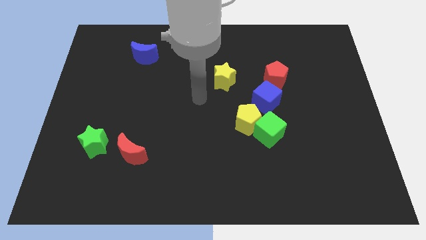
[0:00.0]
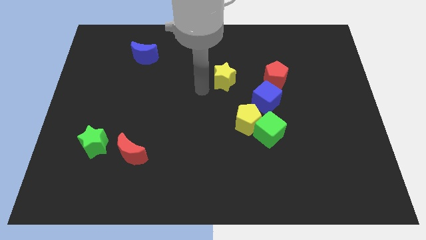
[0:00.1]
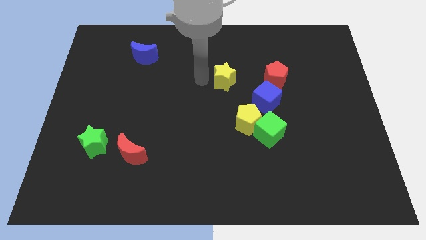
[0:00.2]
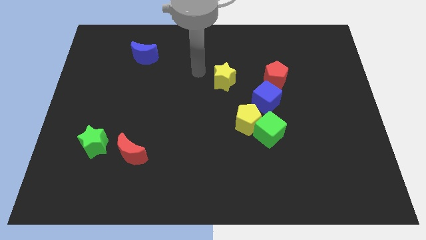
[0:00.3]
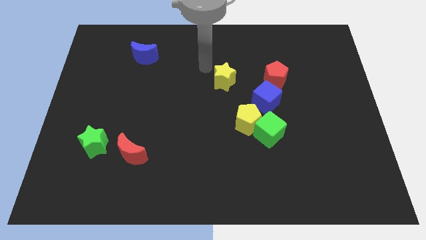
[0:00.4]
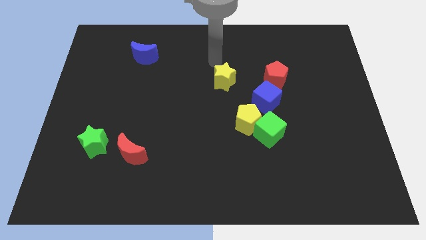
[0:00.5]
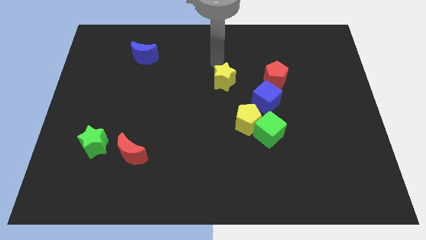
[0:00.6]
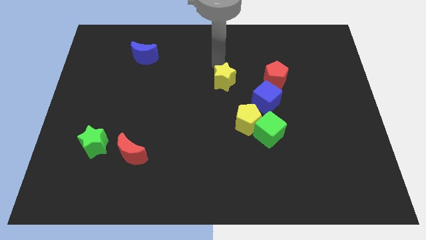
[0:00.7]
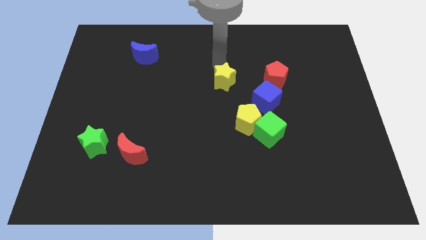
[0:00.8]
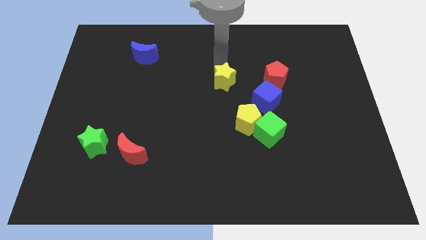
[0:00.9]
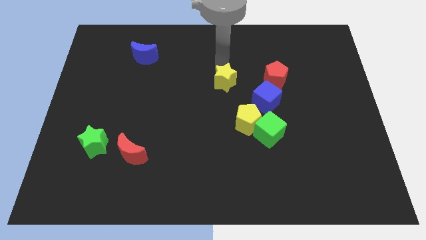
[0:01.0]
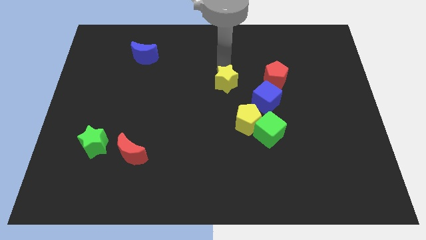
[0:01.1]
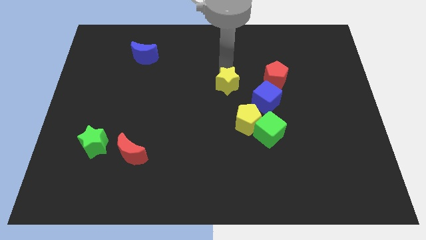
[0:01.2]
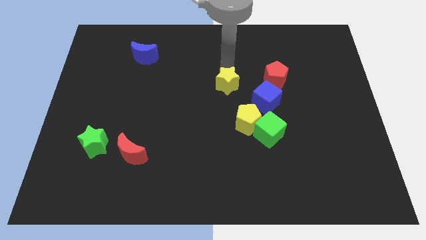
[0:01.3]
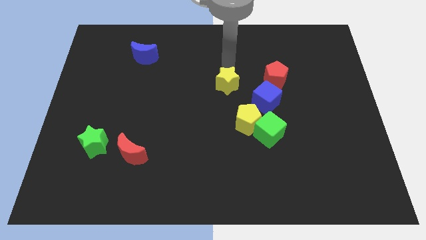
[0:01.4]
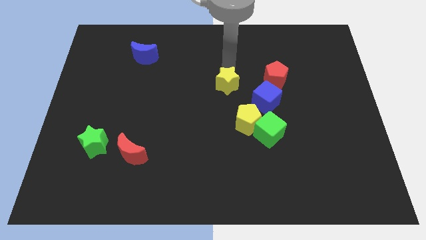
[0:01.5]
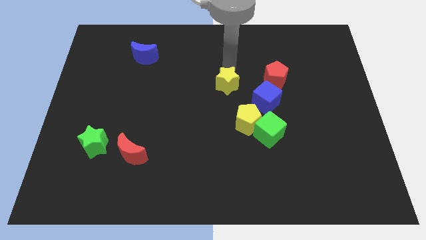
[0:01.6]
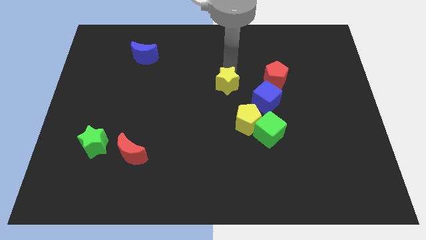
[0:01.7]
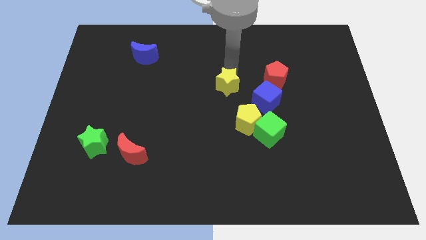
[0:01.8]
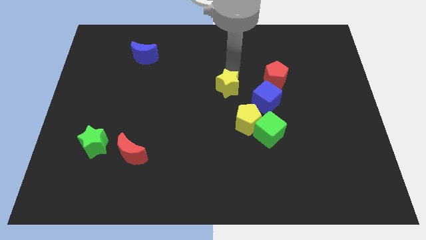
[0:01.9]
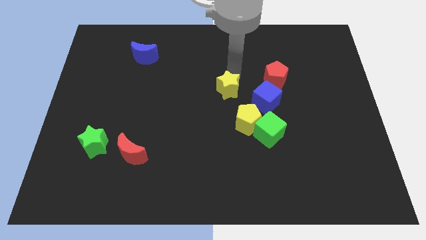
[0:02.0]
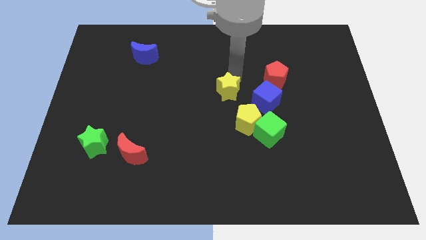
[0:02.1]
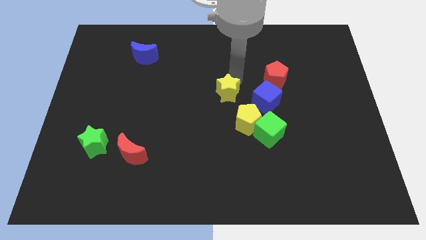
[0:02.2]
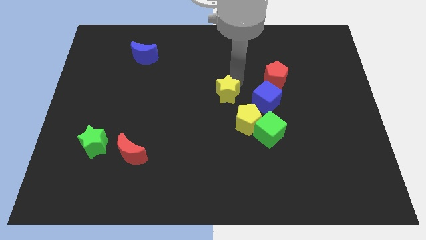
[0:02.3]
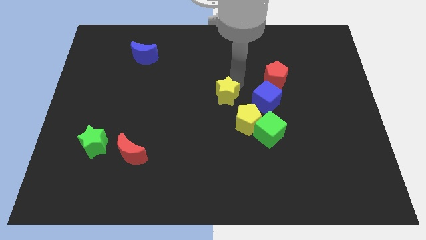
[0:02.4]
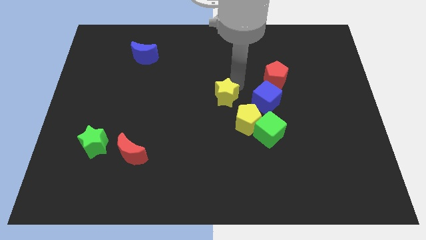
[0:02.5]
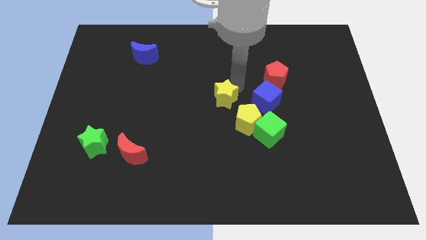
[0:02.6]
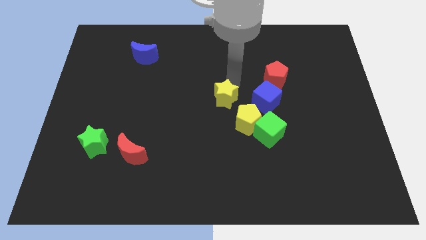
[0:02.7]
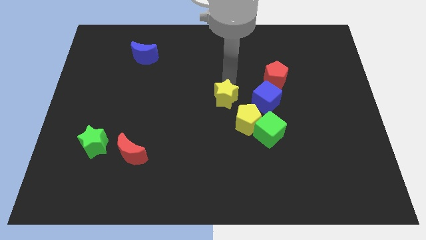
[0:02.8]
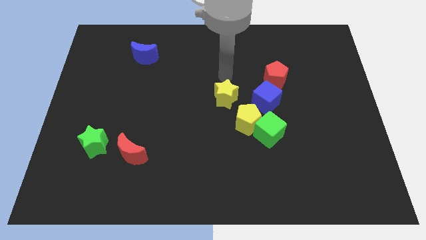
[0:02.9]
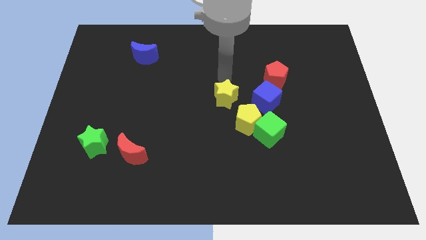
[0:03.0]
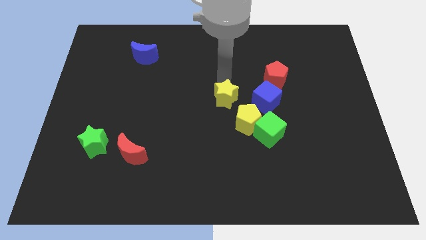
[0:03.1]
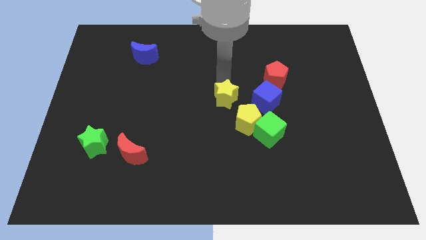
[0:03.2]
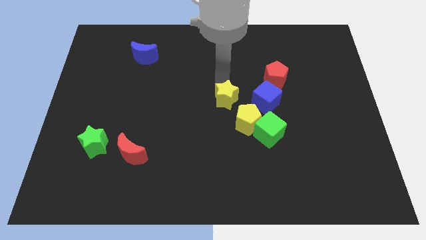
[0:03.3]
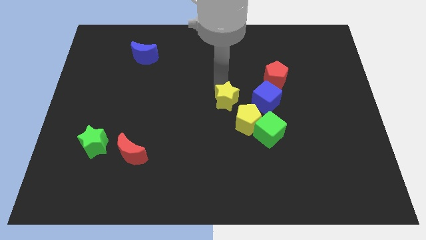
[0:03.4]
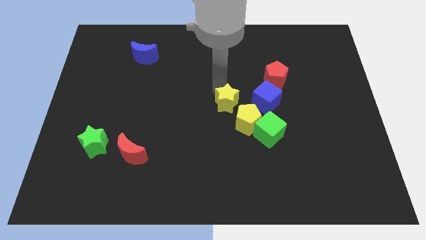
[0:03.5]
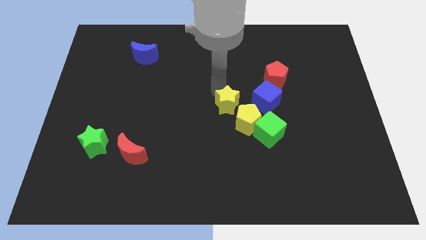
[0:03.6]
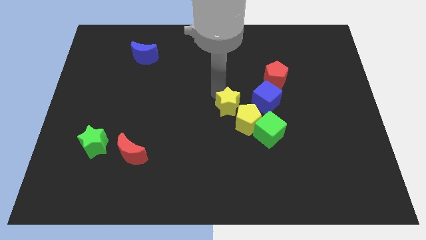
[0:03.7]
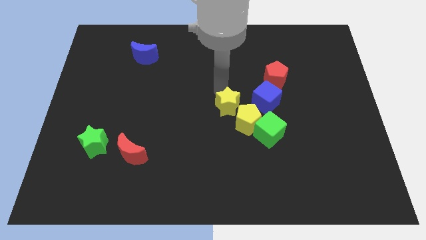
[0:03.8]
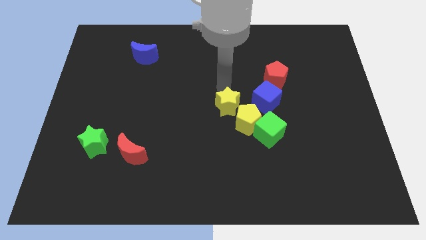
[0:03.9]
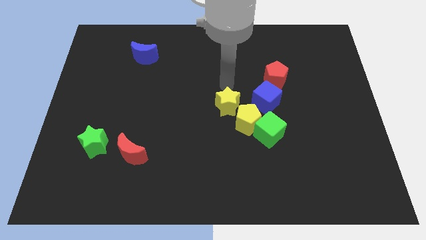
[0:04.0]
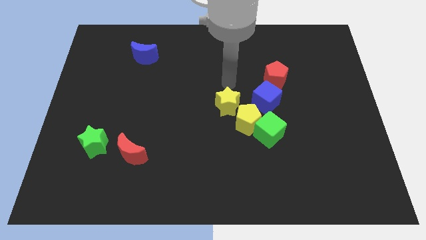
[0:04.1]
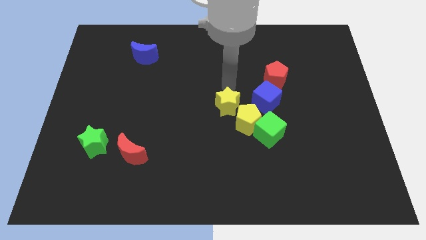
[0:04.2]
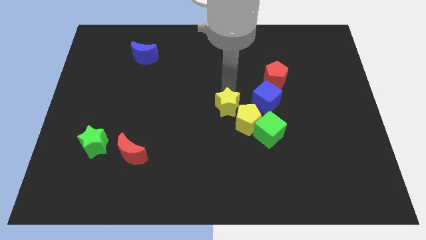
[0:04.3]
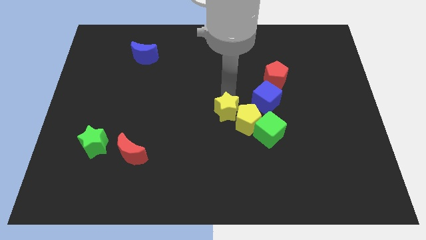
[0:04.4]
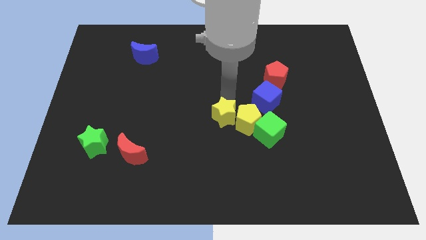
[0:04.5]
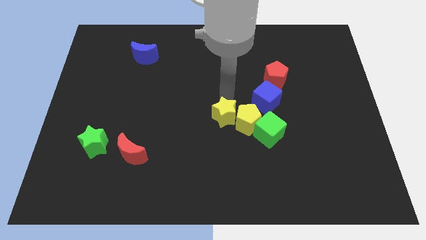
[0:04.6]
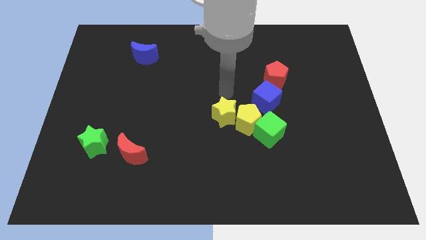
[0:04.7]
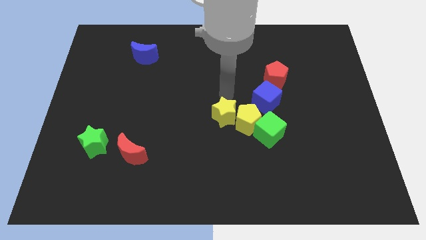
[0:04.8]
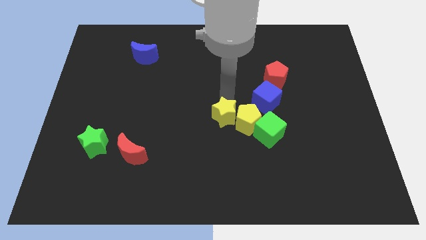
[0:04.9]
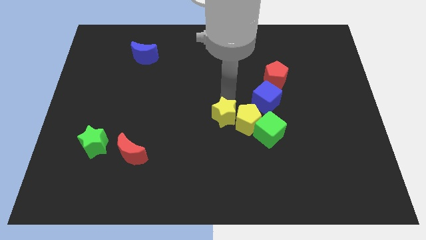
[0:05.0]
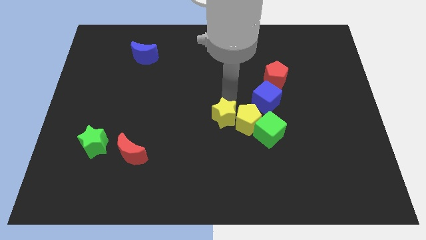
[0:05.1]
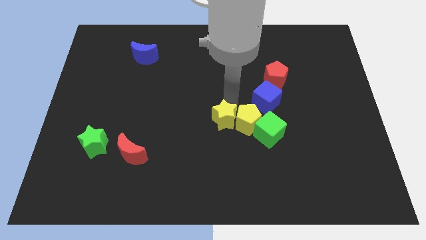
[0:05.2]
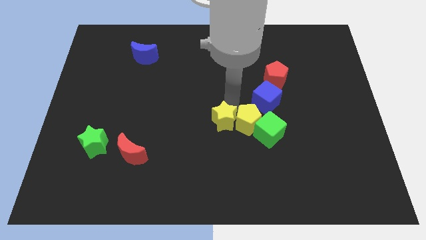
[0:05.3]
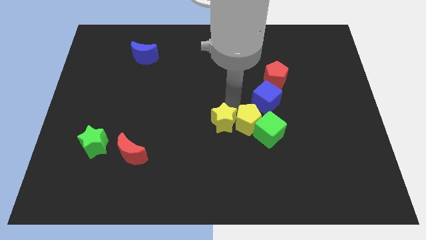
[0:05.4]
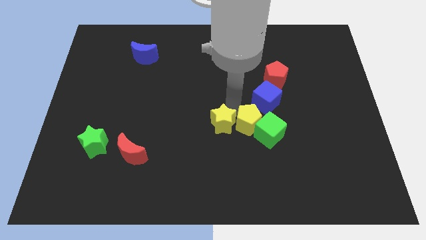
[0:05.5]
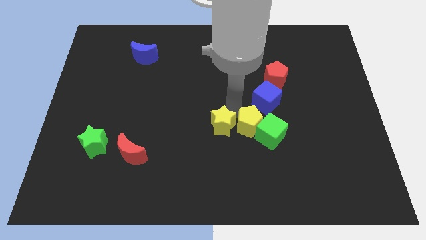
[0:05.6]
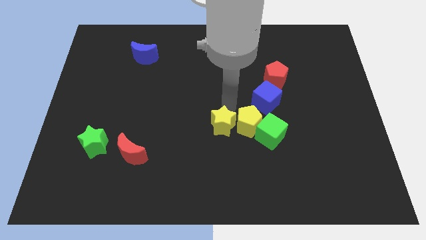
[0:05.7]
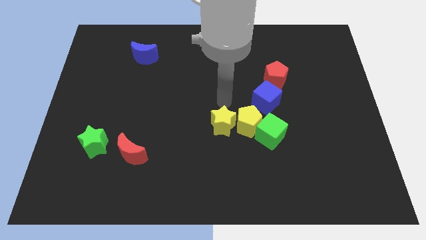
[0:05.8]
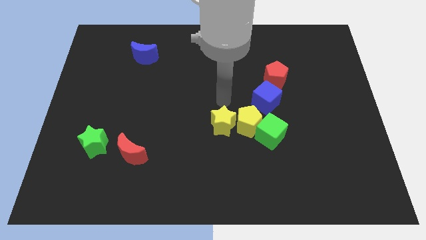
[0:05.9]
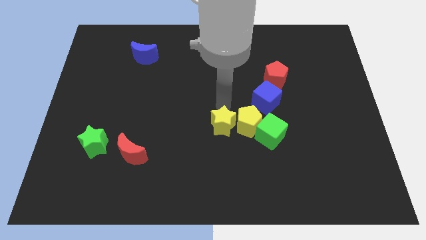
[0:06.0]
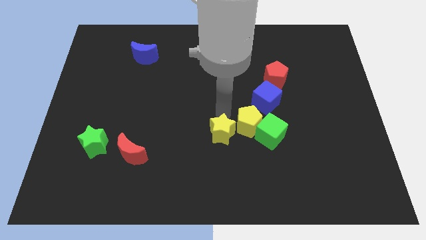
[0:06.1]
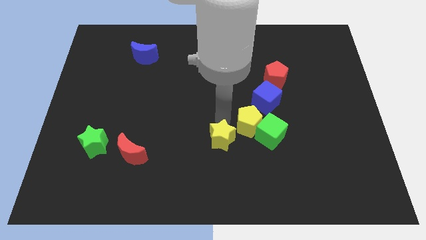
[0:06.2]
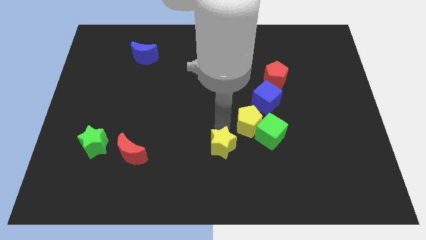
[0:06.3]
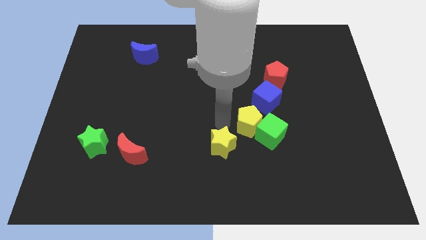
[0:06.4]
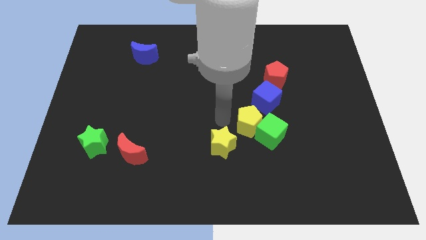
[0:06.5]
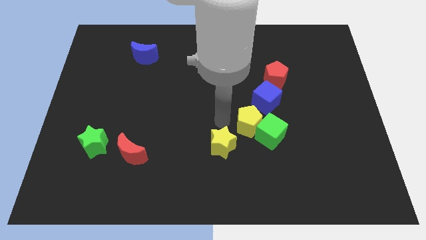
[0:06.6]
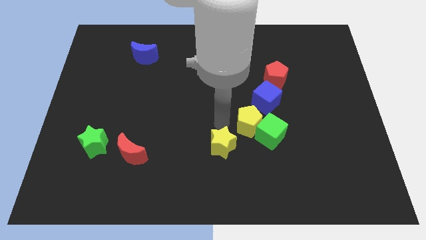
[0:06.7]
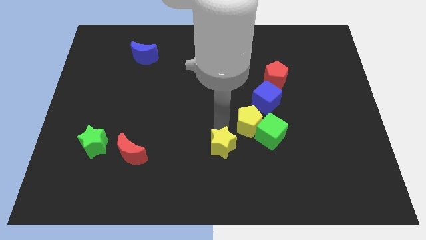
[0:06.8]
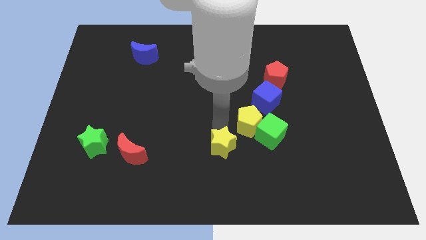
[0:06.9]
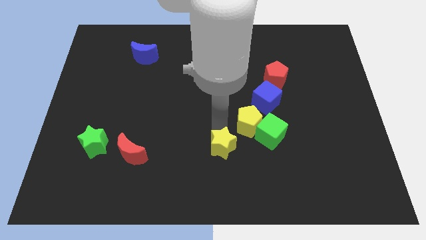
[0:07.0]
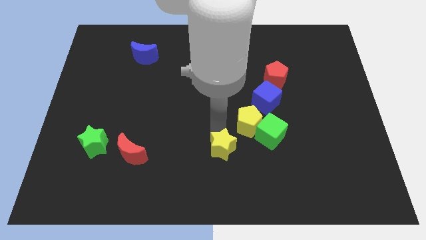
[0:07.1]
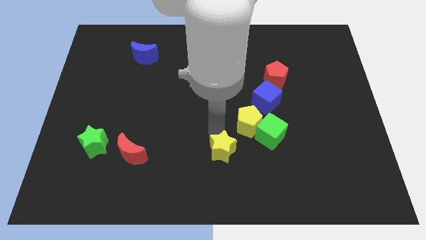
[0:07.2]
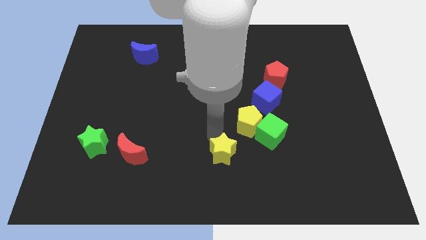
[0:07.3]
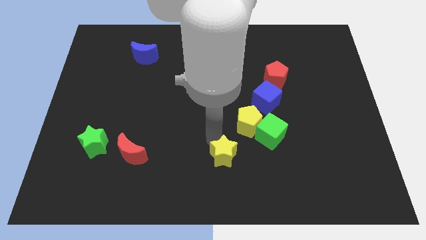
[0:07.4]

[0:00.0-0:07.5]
move the yellow star to the bottom side
